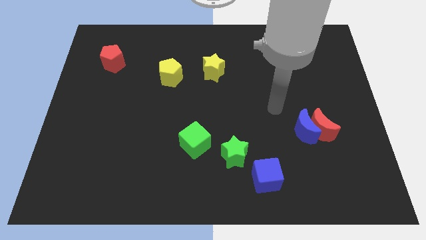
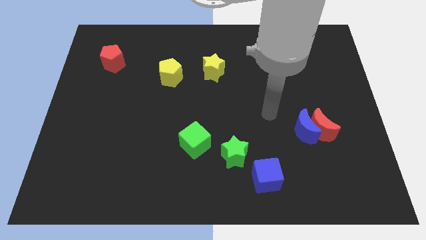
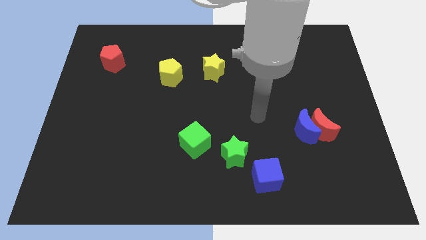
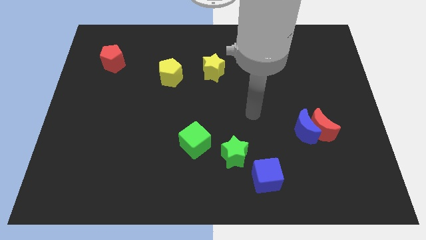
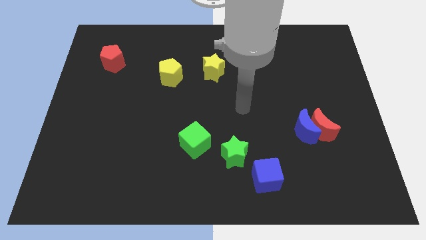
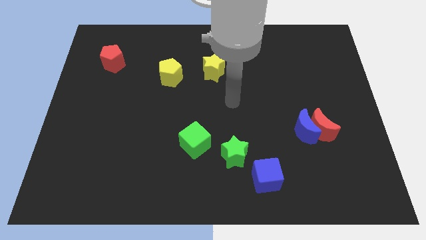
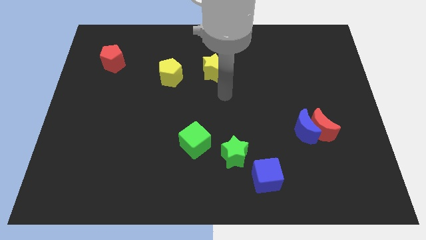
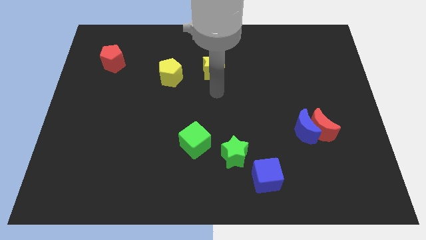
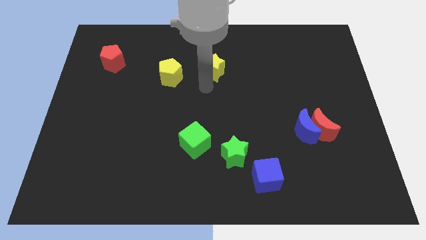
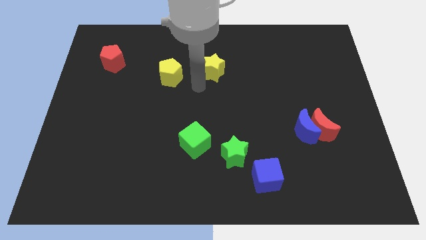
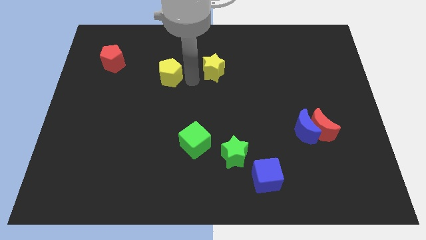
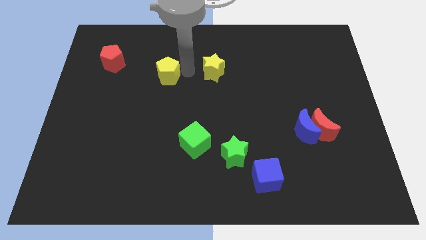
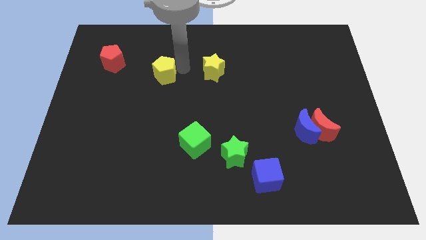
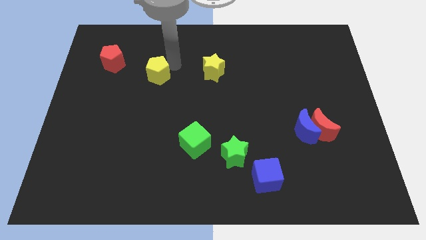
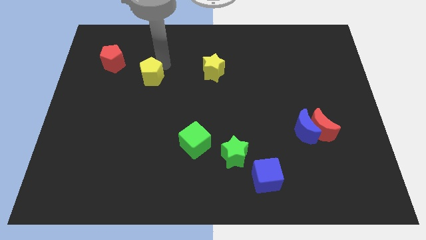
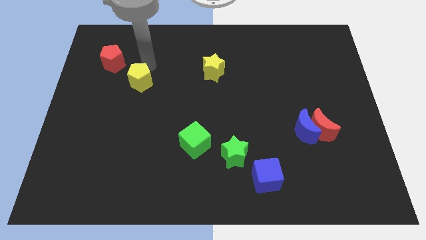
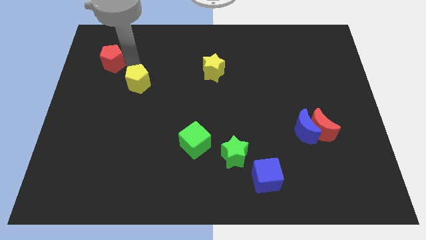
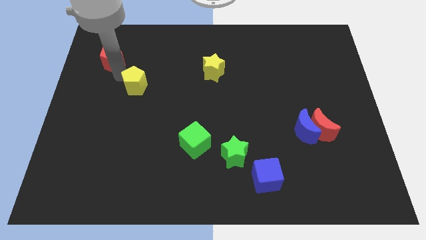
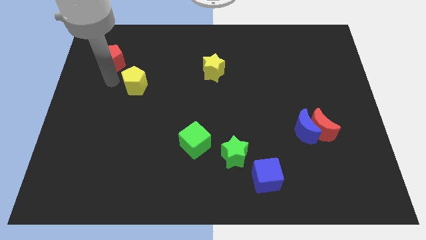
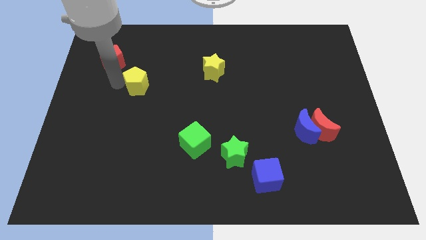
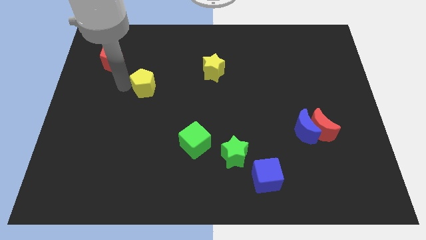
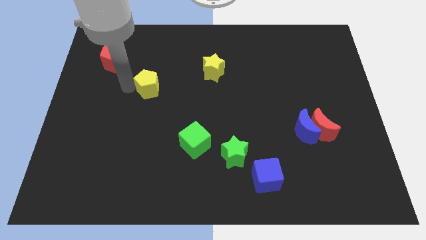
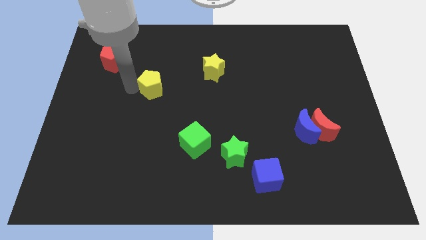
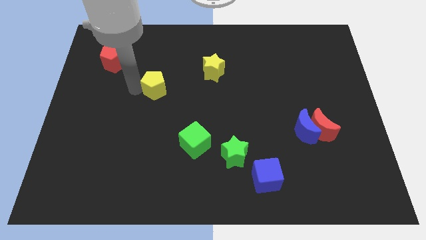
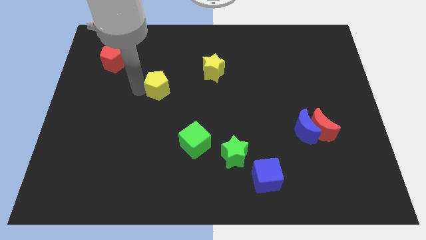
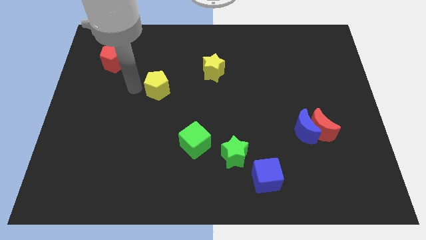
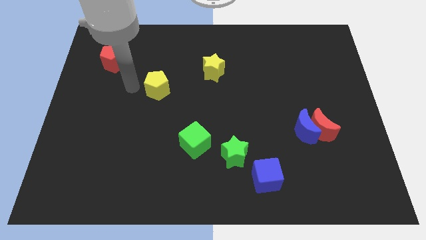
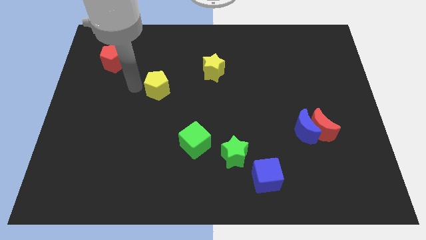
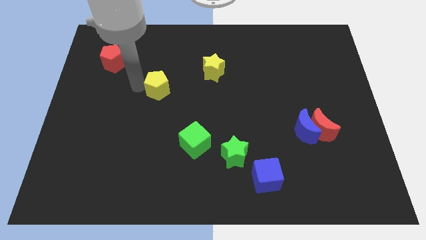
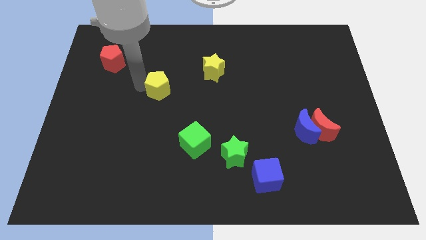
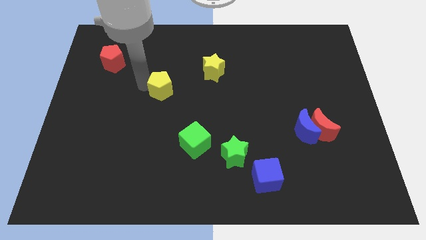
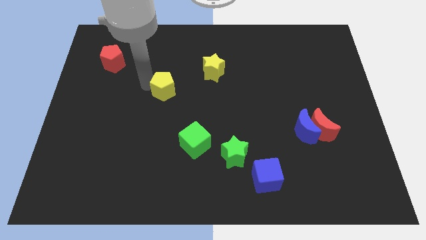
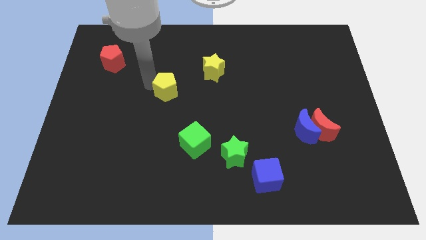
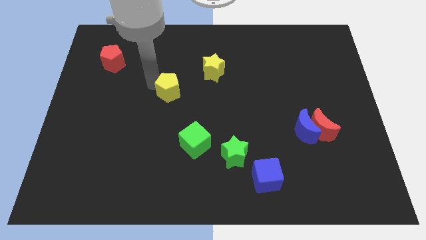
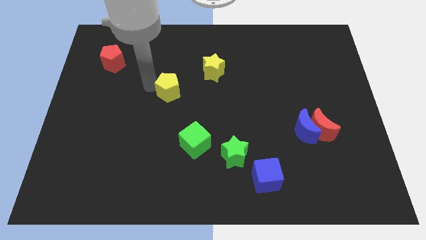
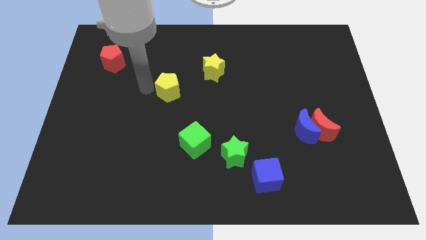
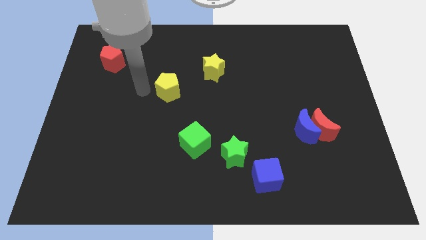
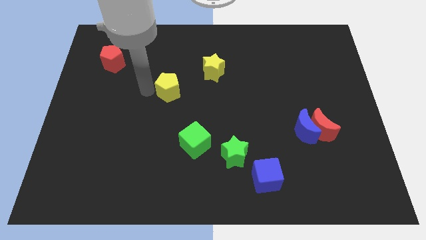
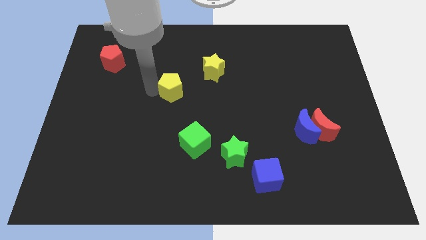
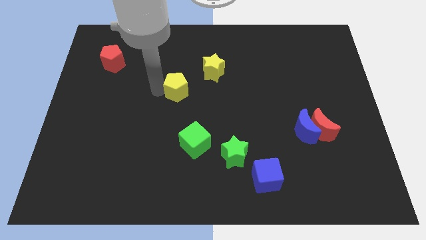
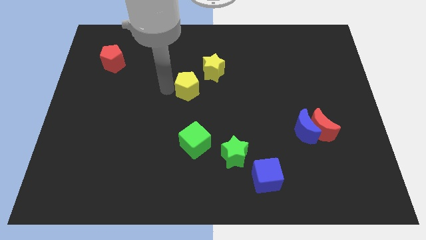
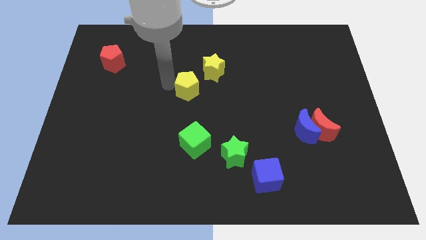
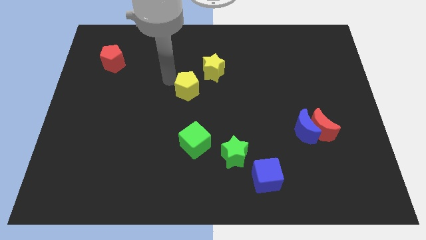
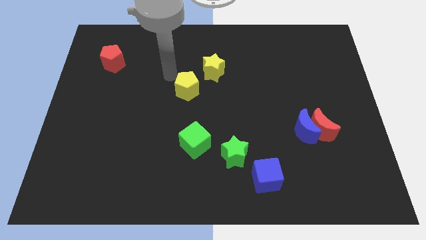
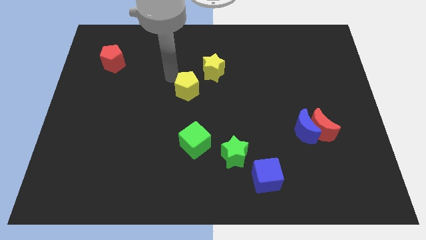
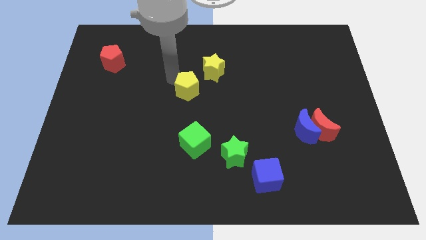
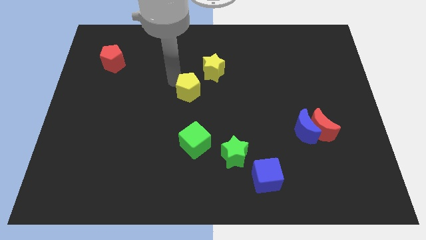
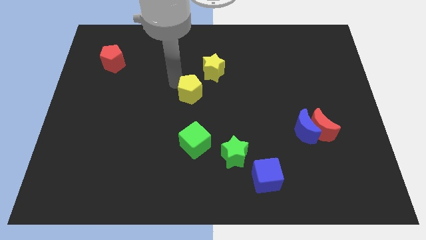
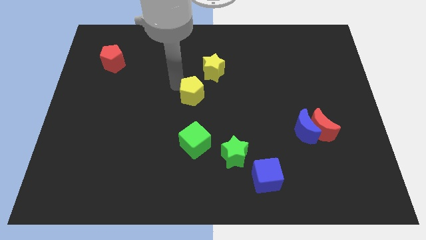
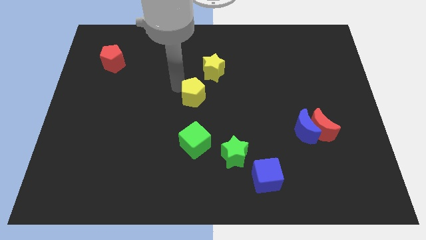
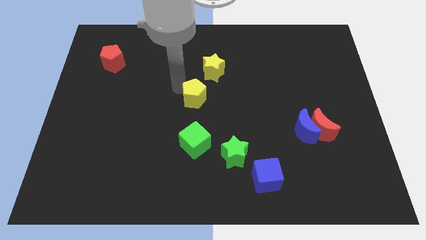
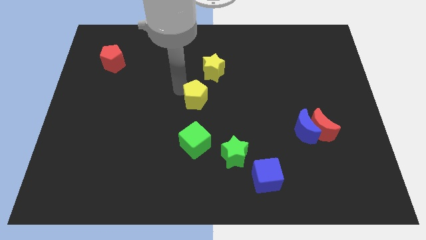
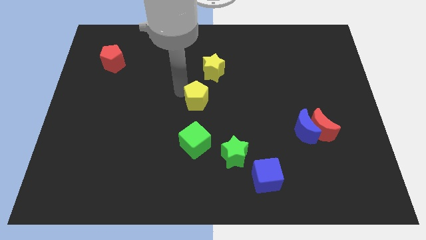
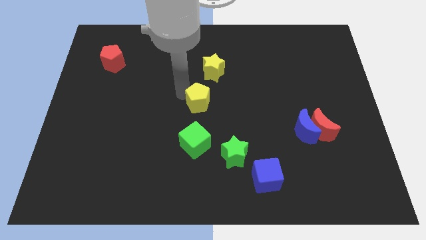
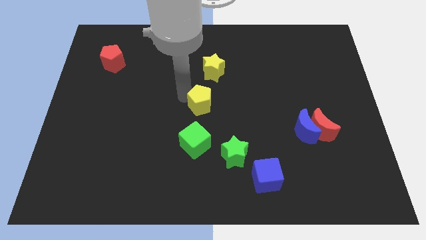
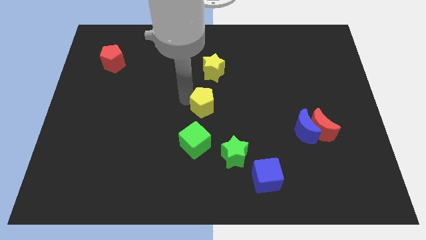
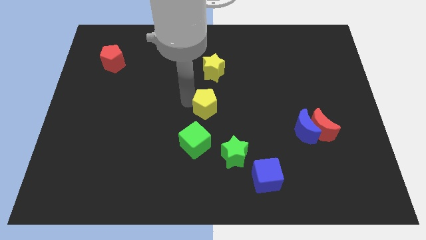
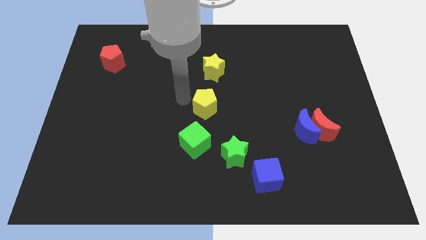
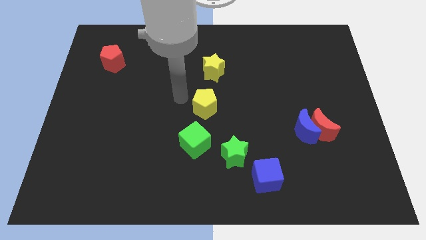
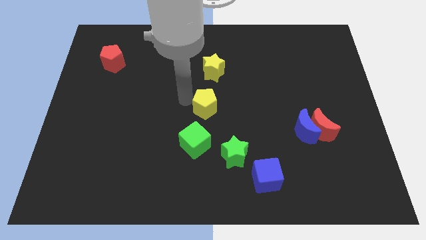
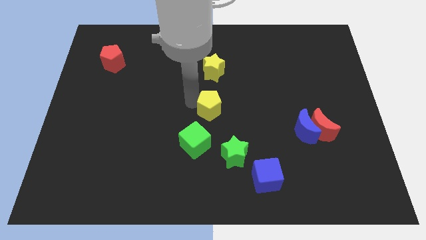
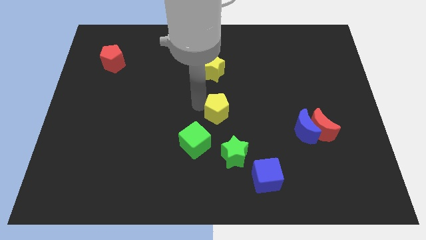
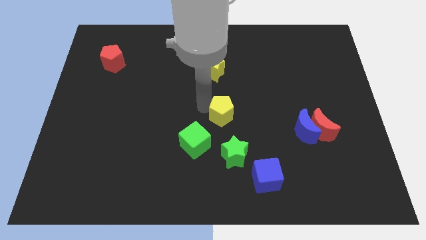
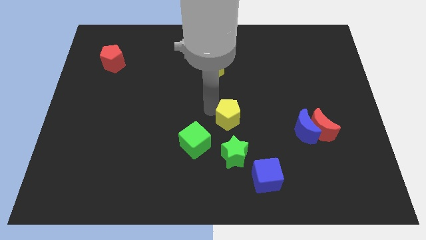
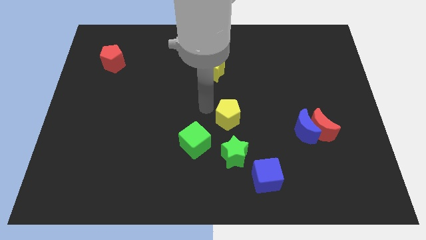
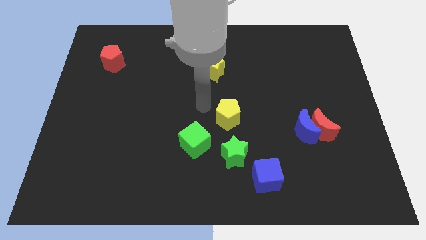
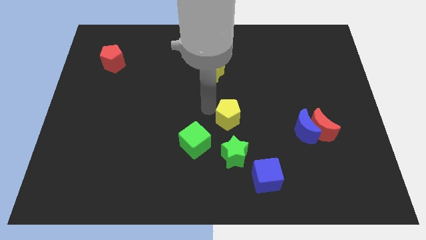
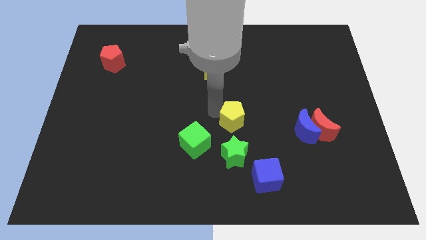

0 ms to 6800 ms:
push the yellow pentagon diagonally downwards and right

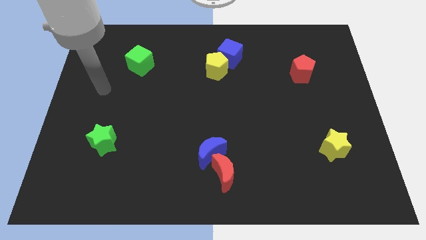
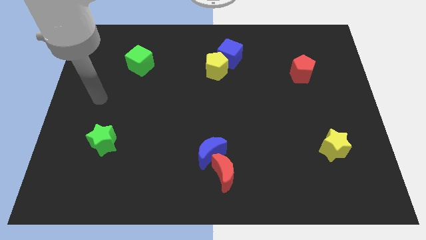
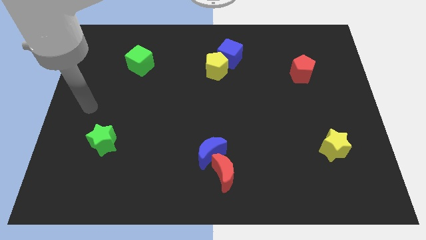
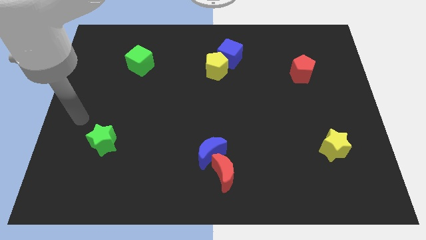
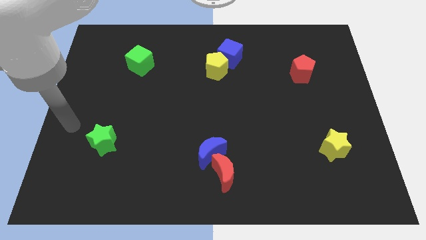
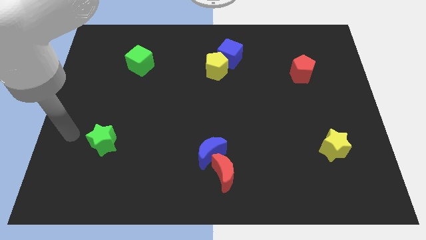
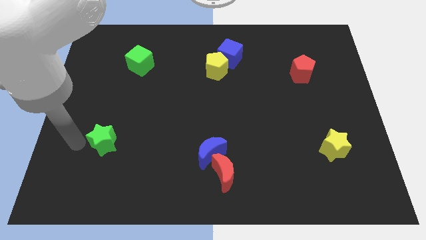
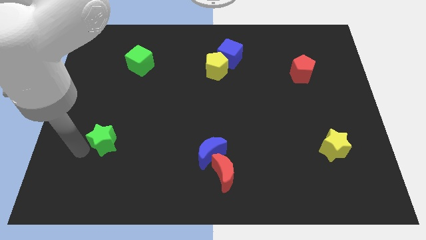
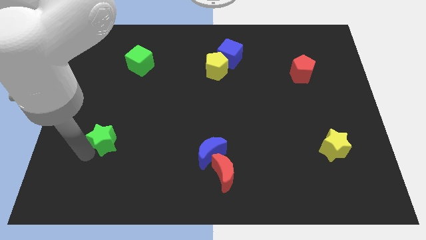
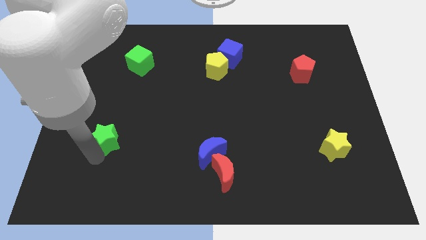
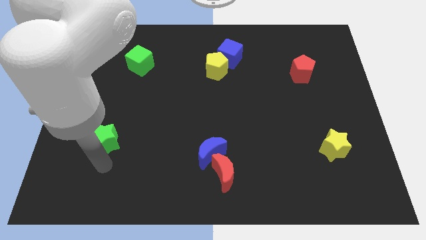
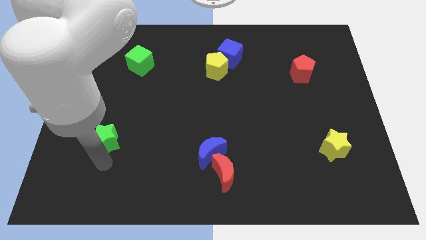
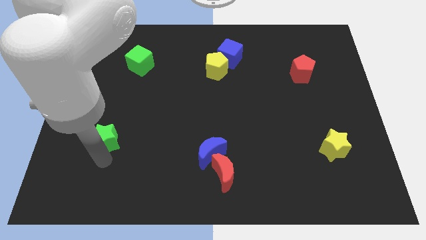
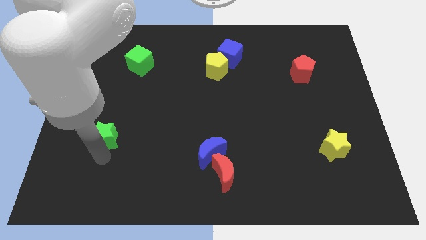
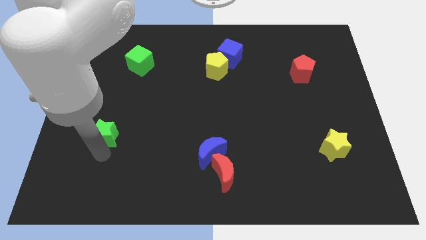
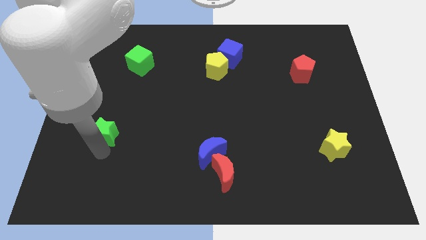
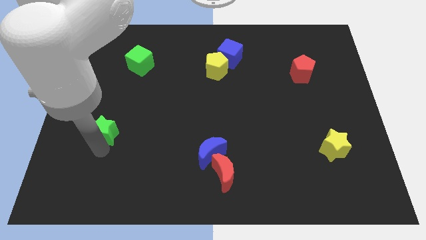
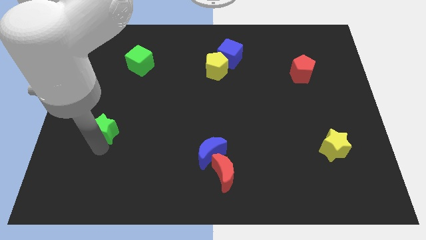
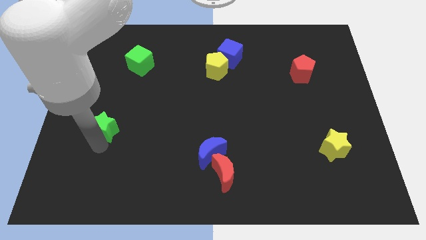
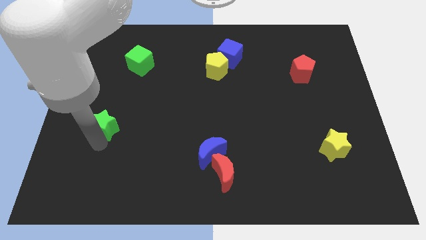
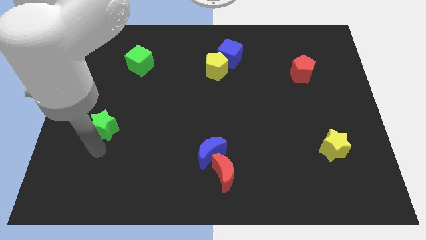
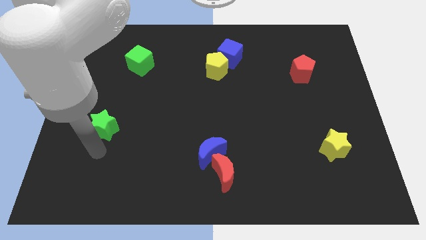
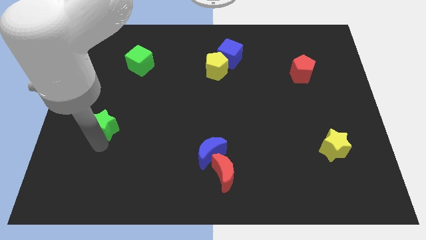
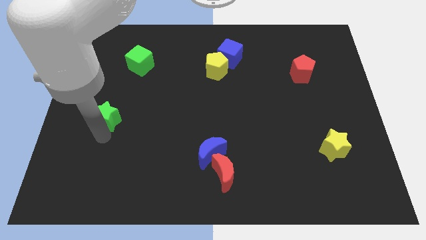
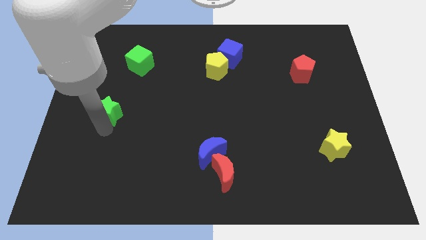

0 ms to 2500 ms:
slightly move the green star up
